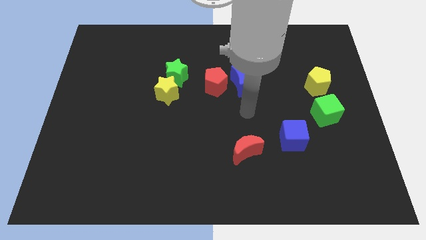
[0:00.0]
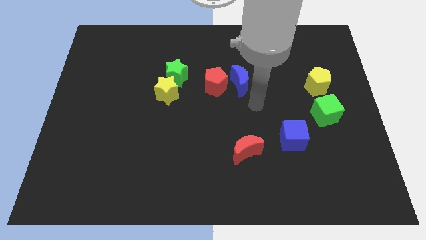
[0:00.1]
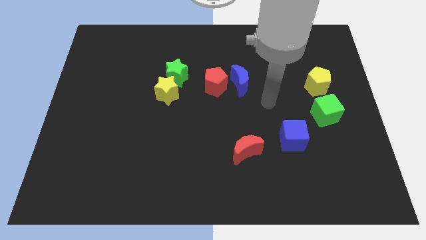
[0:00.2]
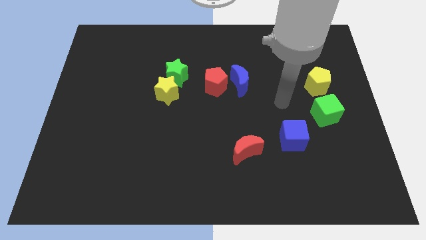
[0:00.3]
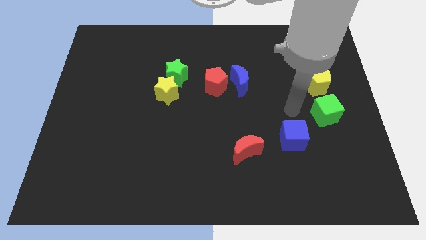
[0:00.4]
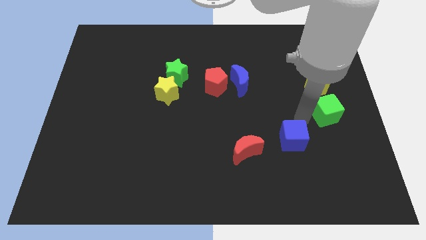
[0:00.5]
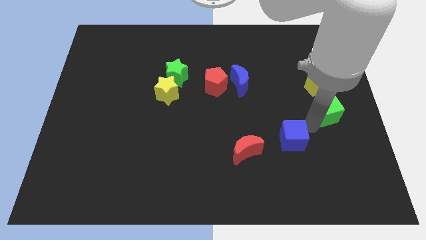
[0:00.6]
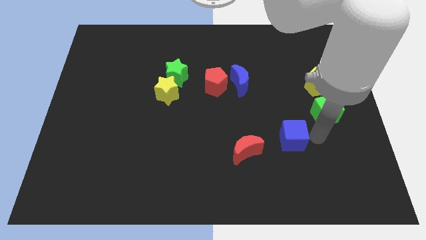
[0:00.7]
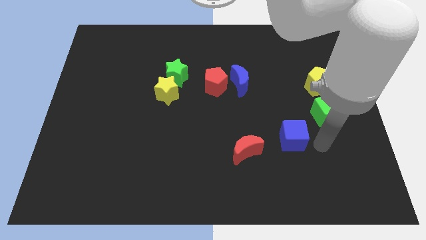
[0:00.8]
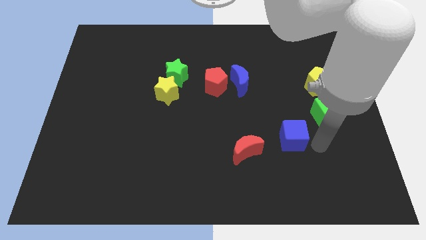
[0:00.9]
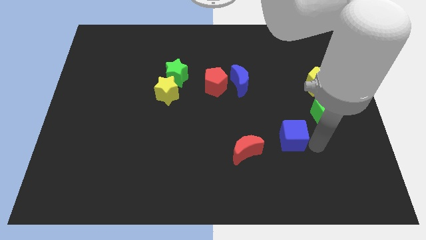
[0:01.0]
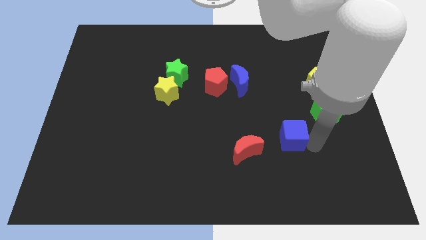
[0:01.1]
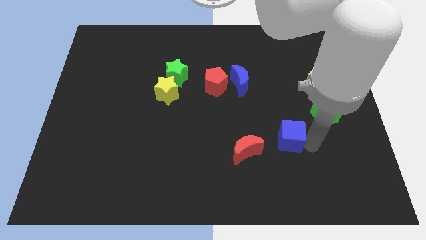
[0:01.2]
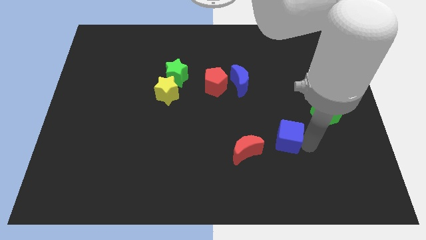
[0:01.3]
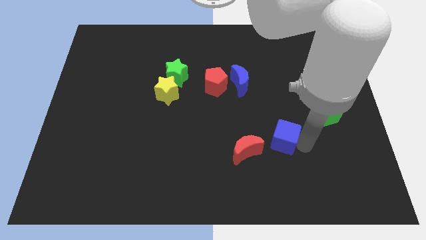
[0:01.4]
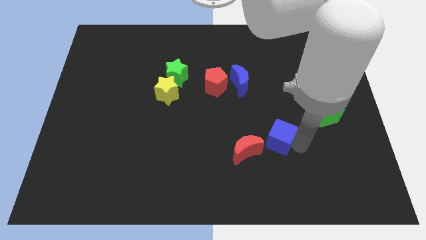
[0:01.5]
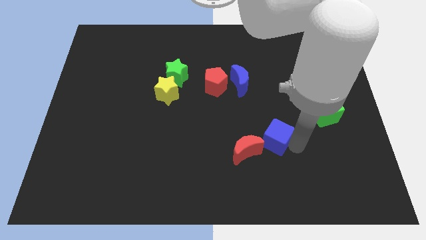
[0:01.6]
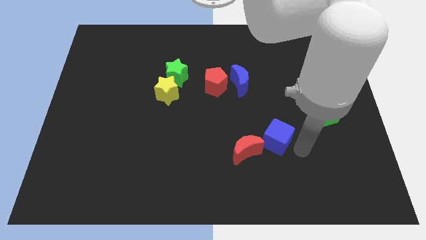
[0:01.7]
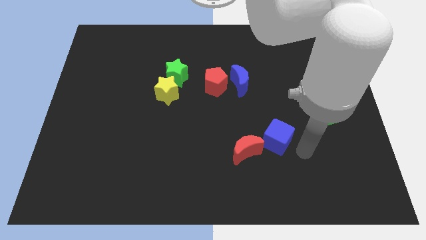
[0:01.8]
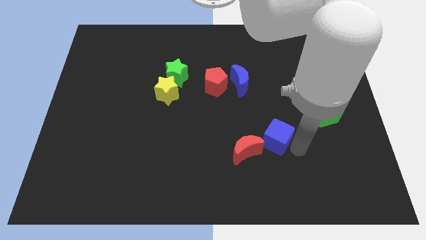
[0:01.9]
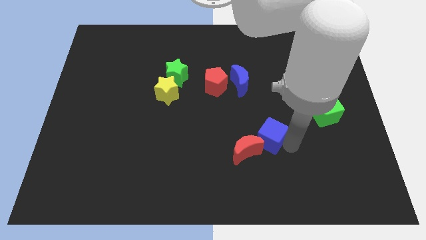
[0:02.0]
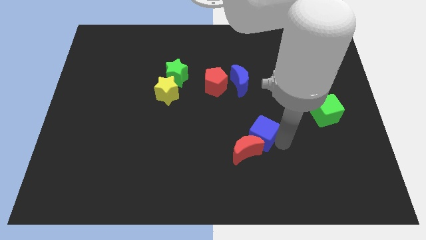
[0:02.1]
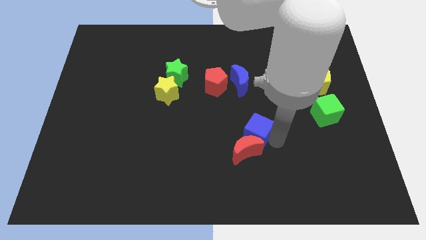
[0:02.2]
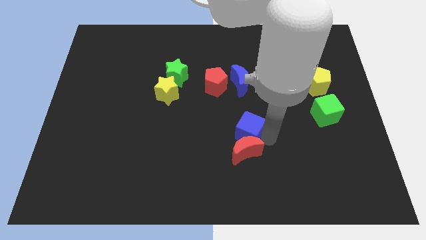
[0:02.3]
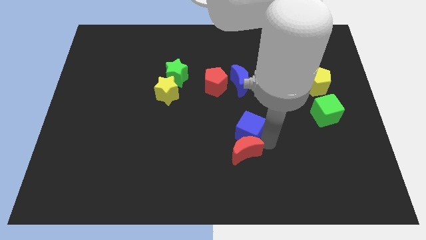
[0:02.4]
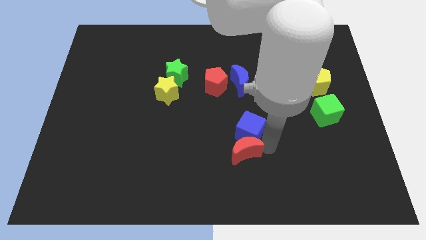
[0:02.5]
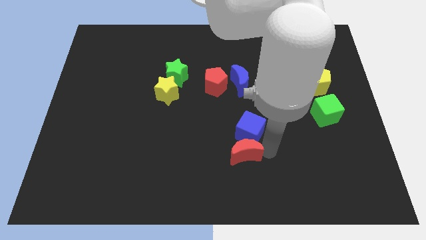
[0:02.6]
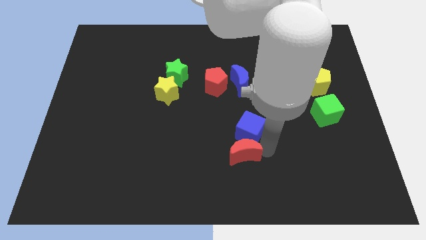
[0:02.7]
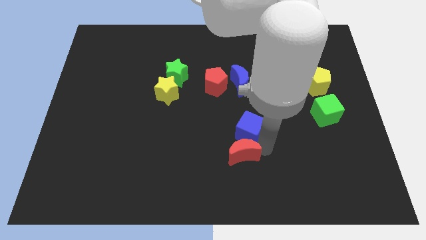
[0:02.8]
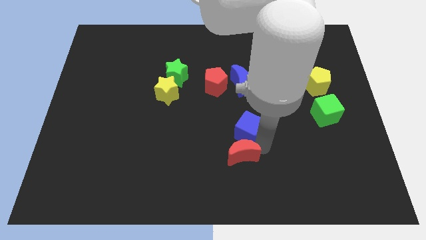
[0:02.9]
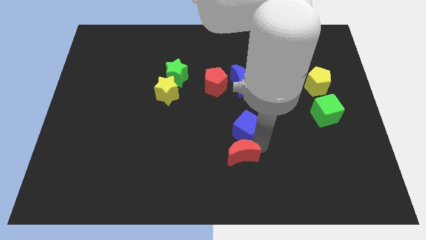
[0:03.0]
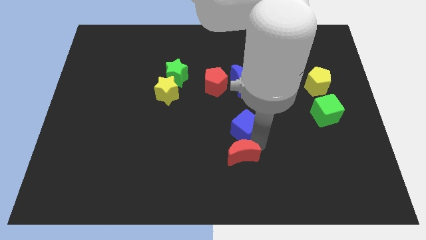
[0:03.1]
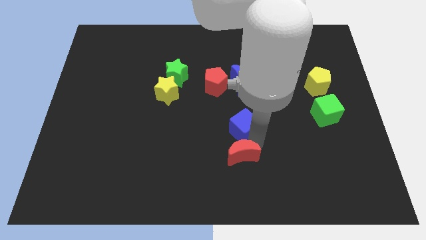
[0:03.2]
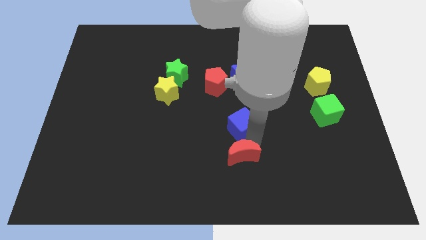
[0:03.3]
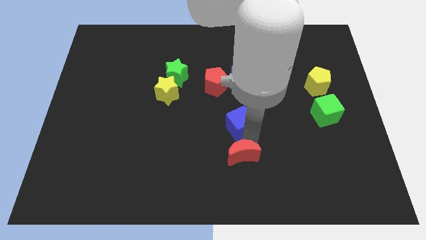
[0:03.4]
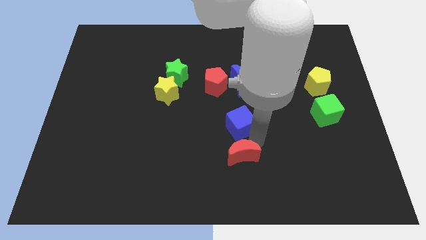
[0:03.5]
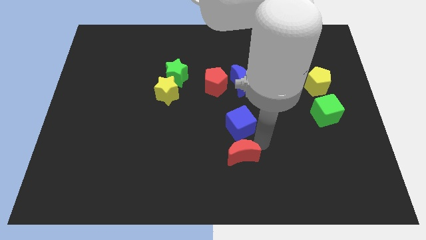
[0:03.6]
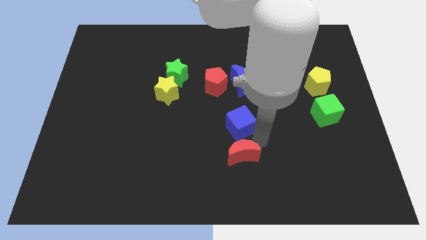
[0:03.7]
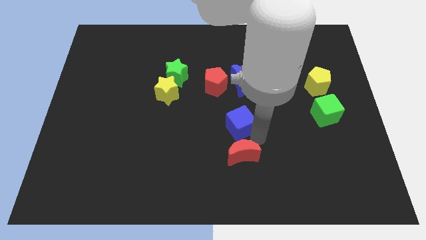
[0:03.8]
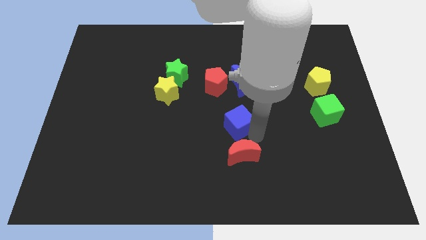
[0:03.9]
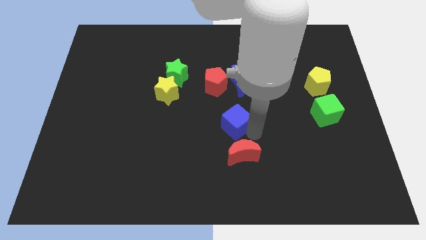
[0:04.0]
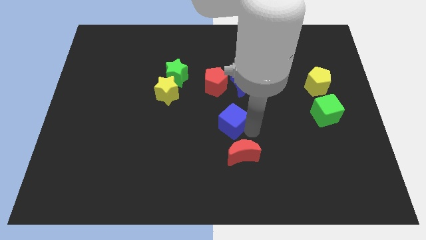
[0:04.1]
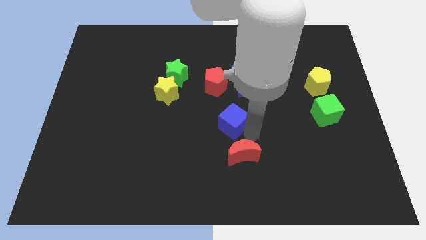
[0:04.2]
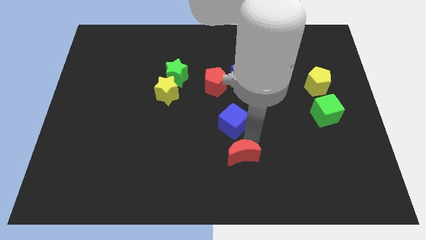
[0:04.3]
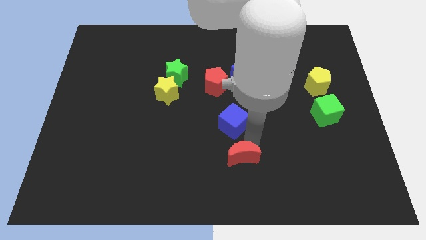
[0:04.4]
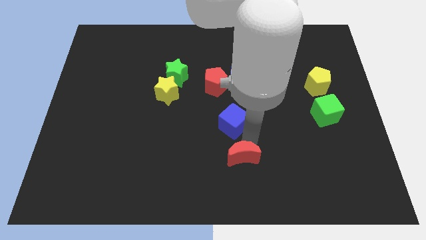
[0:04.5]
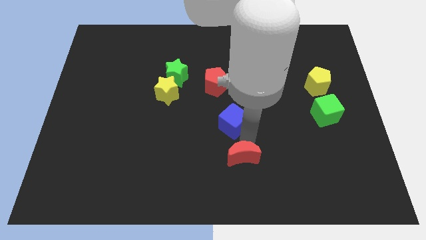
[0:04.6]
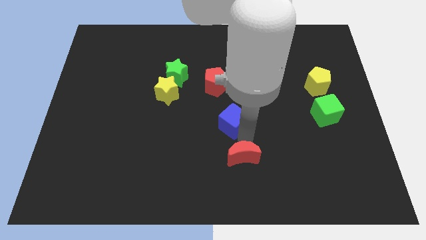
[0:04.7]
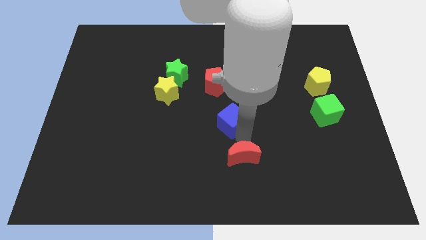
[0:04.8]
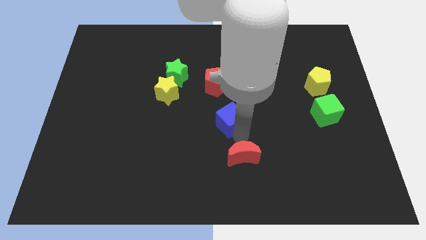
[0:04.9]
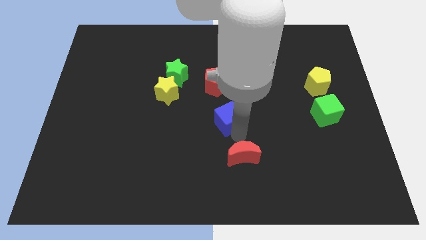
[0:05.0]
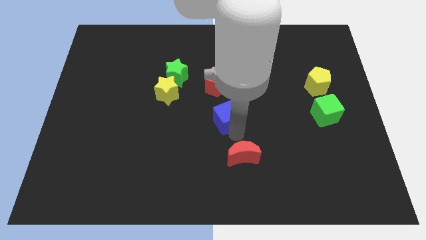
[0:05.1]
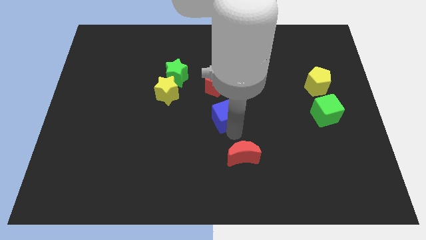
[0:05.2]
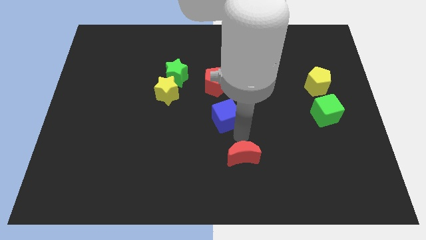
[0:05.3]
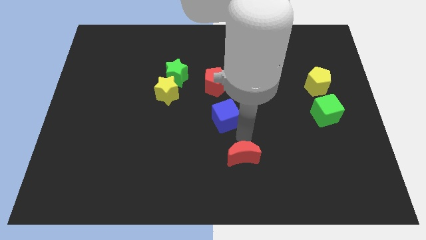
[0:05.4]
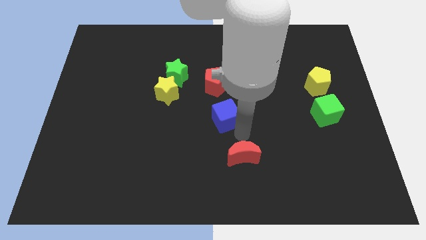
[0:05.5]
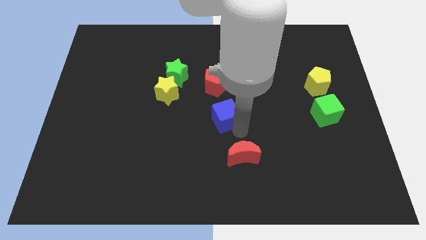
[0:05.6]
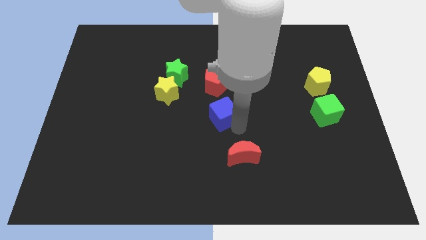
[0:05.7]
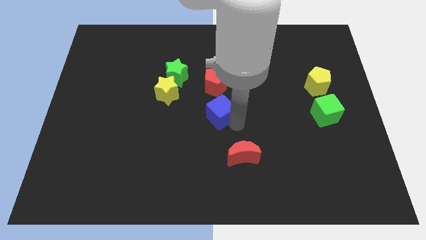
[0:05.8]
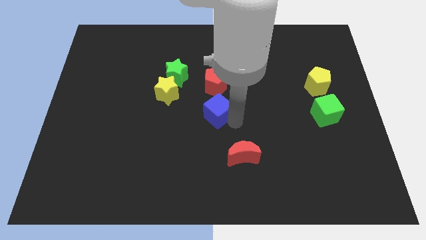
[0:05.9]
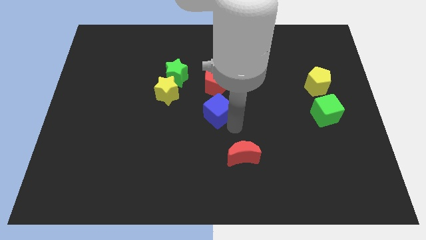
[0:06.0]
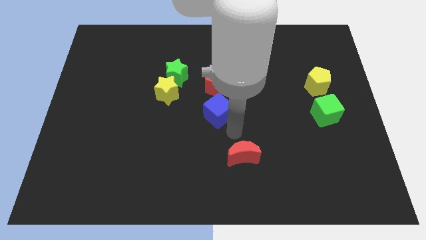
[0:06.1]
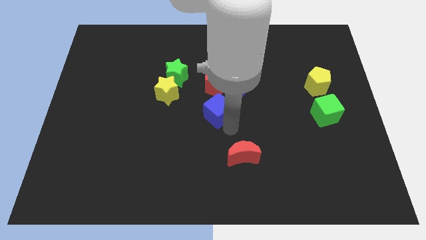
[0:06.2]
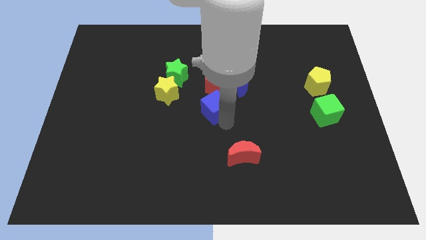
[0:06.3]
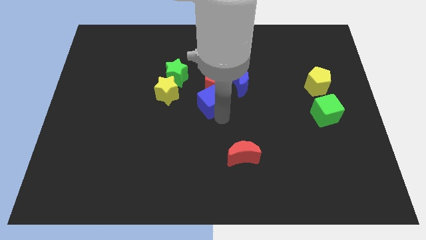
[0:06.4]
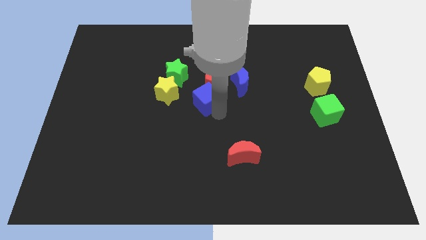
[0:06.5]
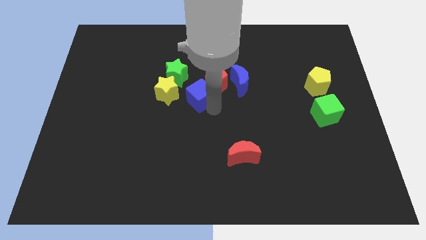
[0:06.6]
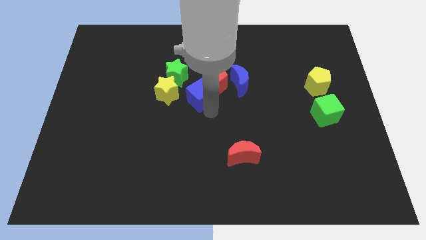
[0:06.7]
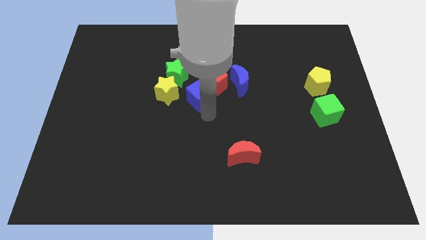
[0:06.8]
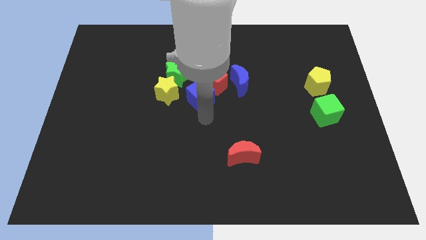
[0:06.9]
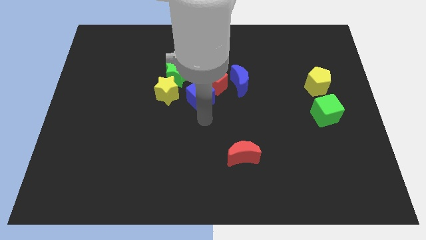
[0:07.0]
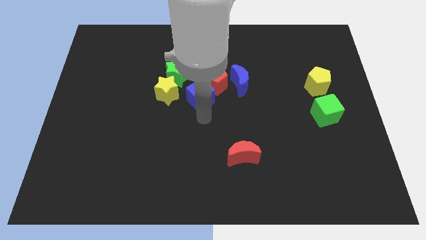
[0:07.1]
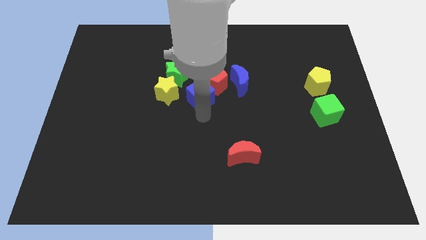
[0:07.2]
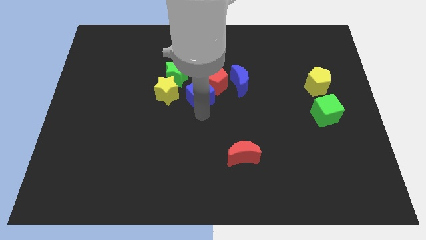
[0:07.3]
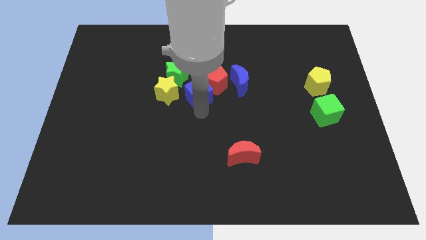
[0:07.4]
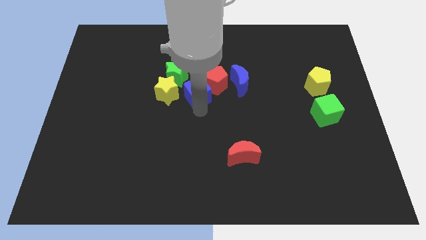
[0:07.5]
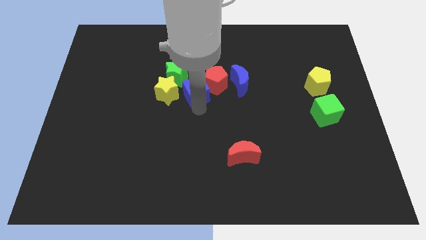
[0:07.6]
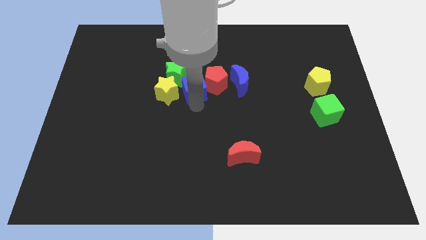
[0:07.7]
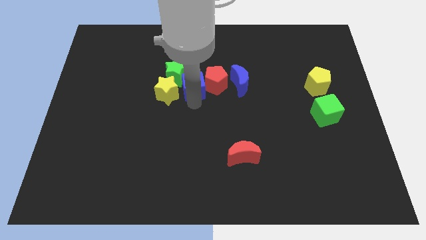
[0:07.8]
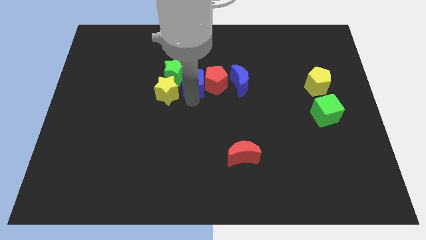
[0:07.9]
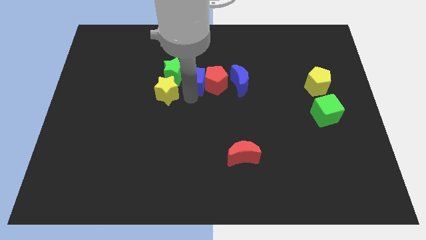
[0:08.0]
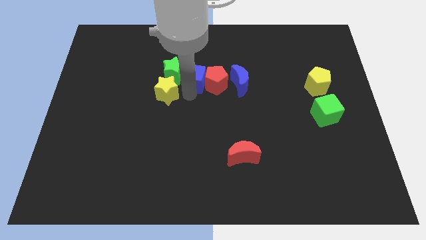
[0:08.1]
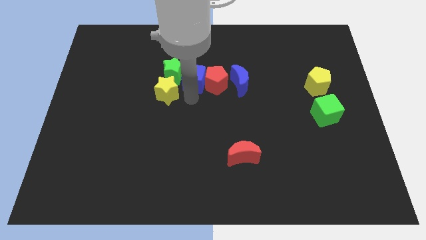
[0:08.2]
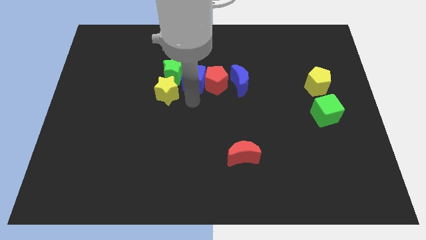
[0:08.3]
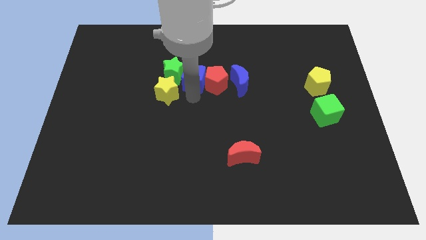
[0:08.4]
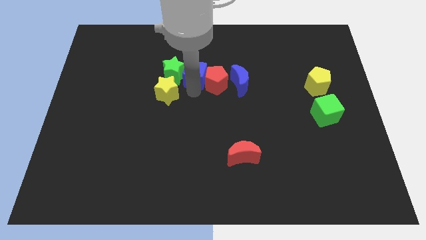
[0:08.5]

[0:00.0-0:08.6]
slide the blue cube to the top right of the green star
